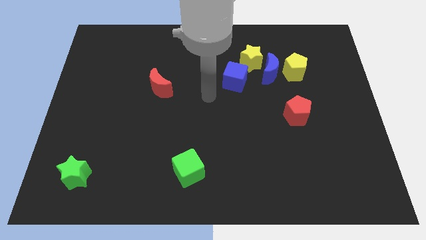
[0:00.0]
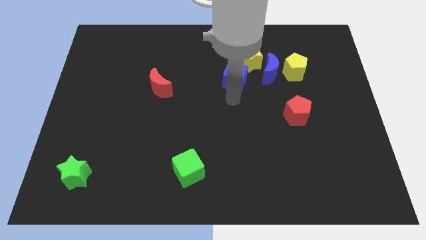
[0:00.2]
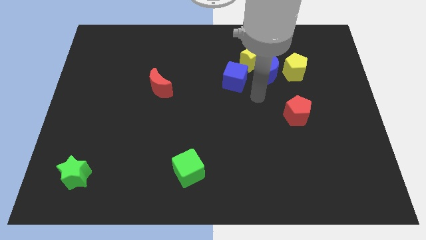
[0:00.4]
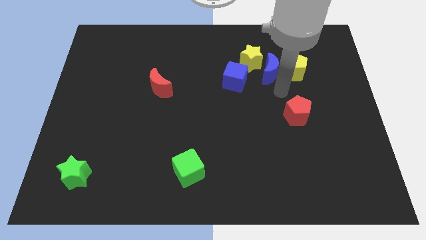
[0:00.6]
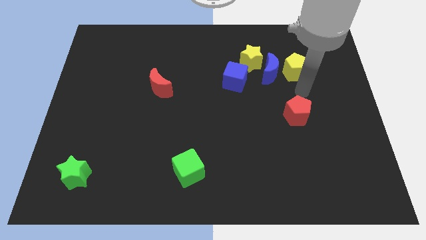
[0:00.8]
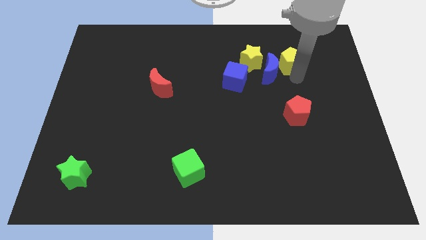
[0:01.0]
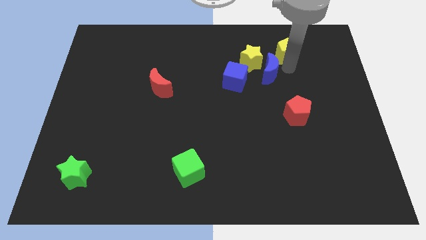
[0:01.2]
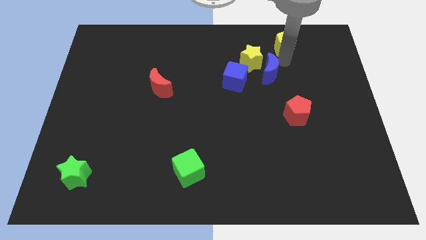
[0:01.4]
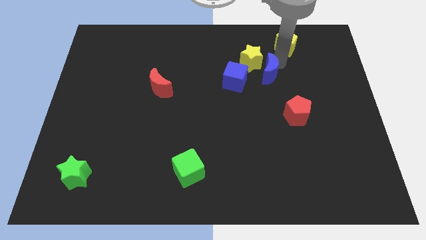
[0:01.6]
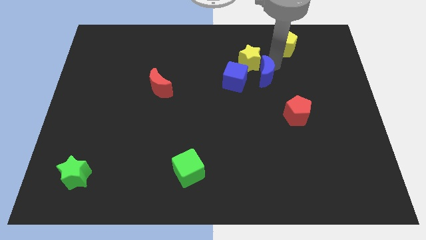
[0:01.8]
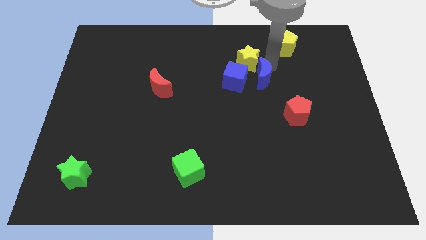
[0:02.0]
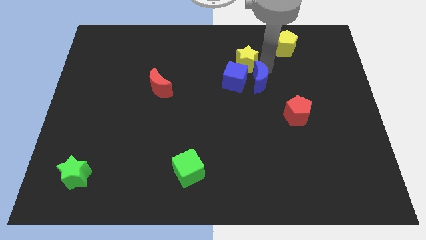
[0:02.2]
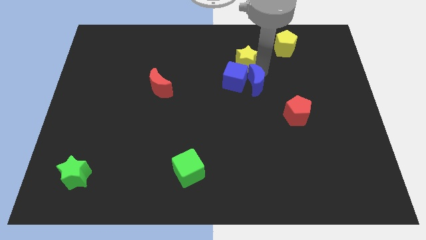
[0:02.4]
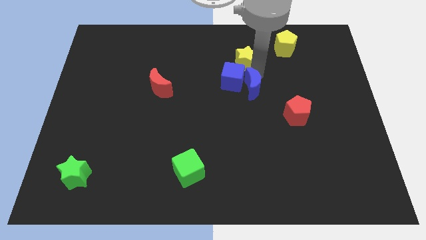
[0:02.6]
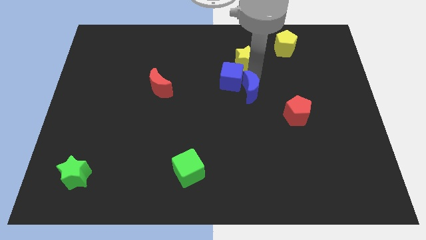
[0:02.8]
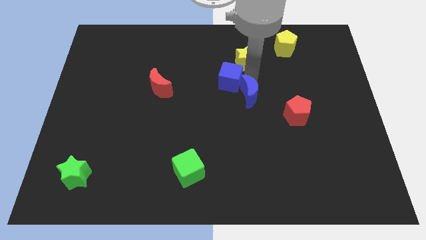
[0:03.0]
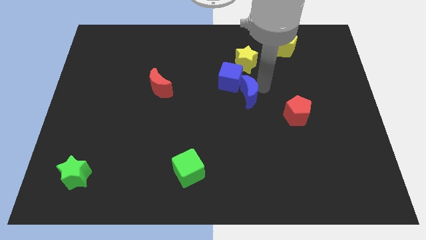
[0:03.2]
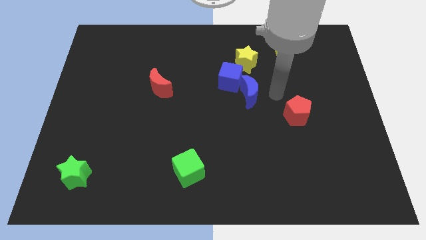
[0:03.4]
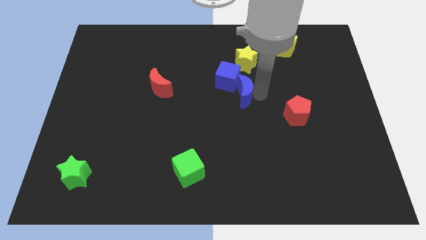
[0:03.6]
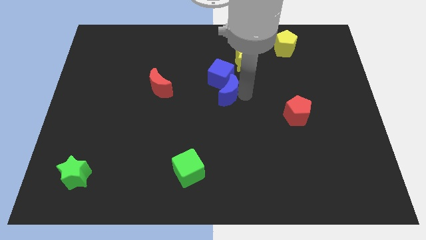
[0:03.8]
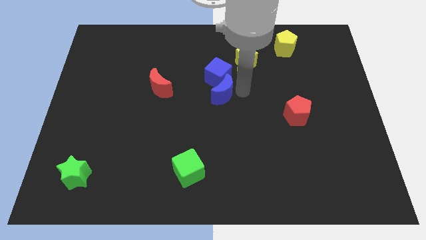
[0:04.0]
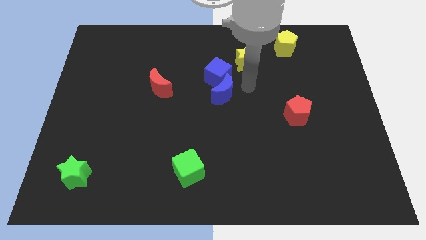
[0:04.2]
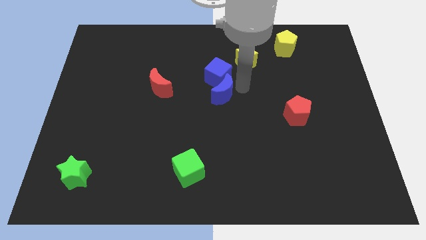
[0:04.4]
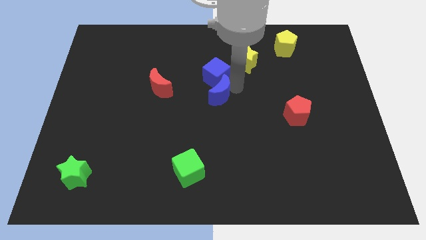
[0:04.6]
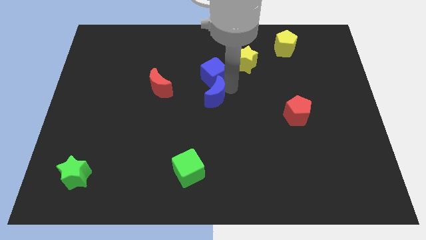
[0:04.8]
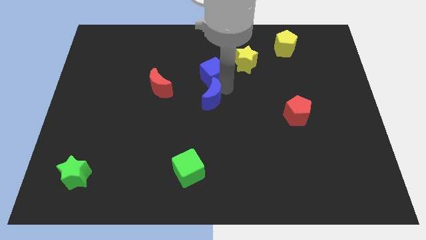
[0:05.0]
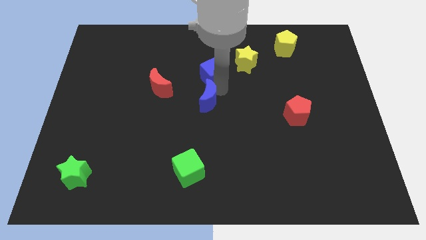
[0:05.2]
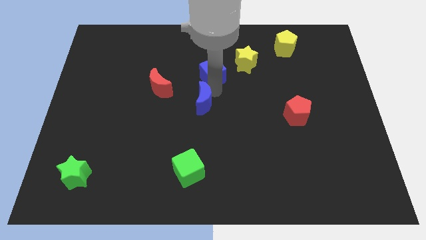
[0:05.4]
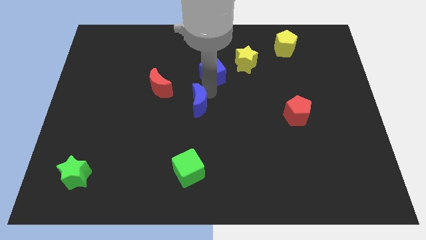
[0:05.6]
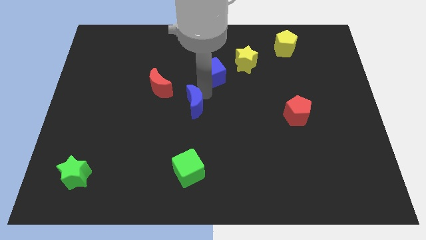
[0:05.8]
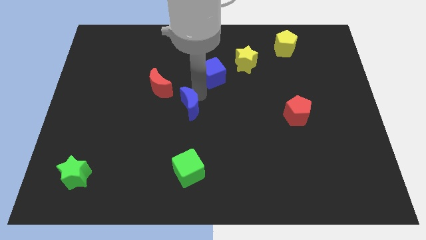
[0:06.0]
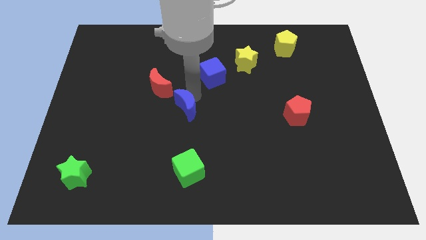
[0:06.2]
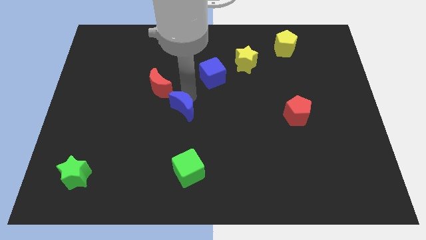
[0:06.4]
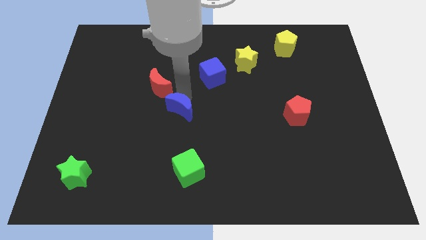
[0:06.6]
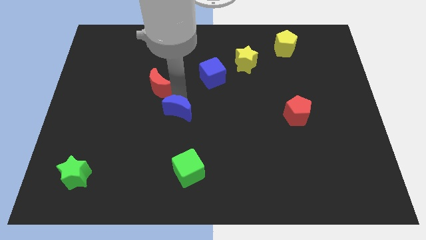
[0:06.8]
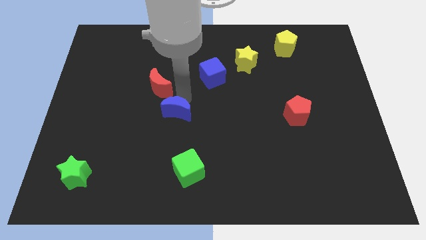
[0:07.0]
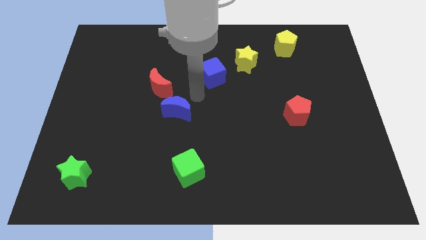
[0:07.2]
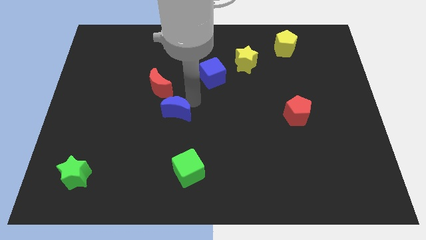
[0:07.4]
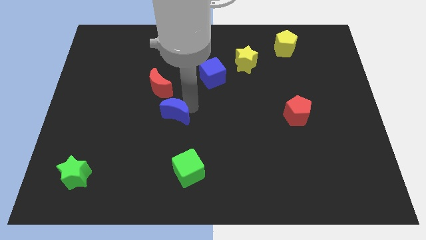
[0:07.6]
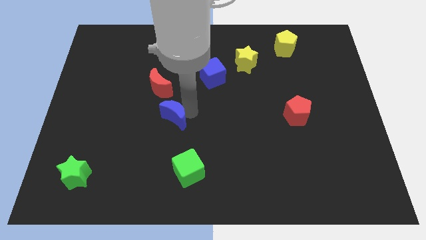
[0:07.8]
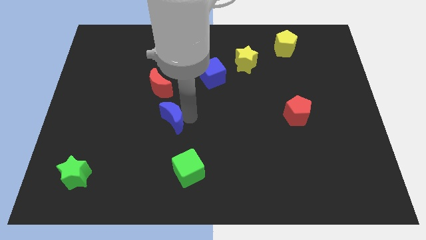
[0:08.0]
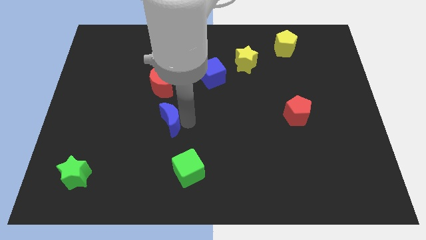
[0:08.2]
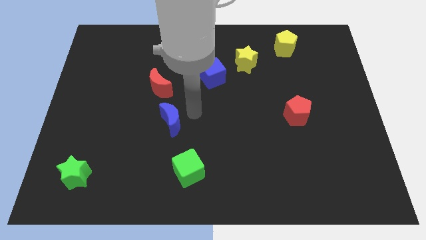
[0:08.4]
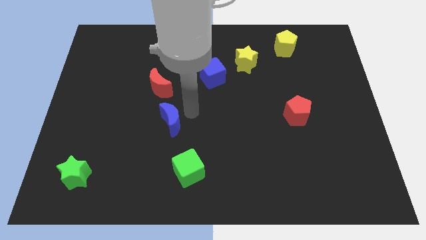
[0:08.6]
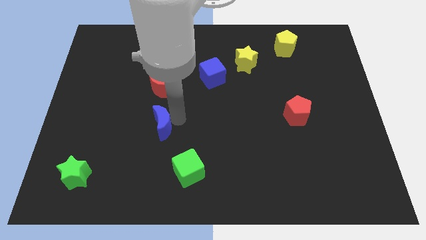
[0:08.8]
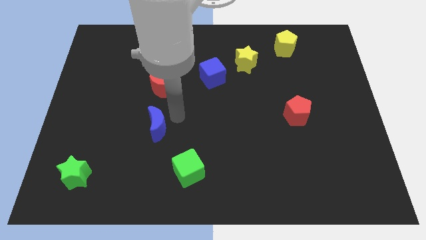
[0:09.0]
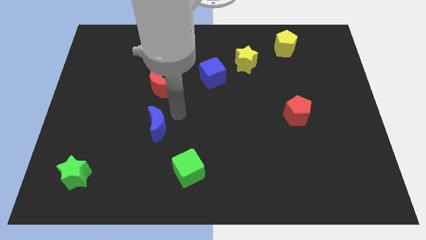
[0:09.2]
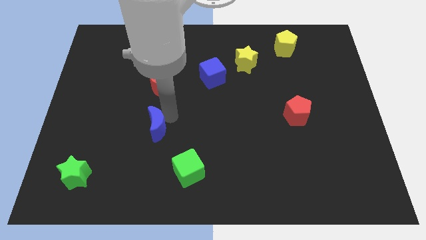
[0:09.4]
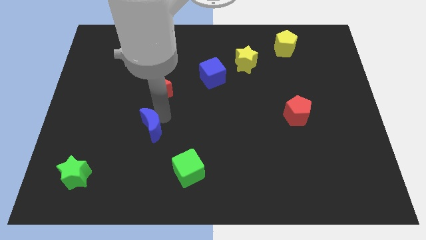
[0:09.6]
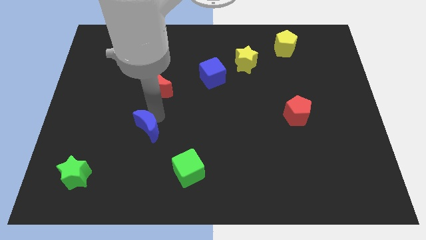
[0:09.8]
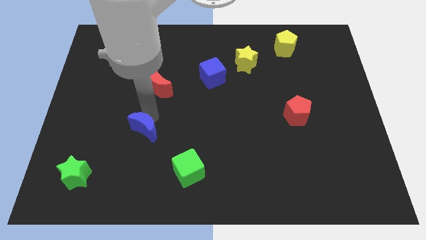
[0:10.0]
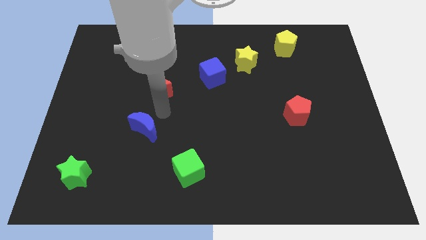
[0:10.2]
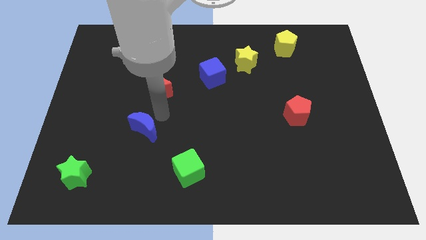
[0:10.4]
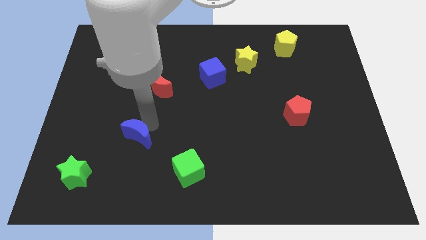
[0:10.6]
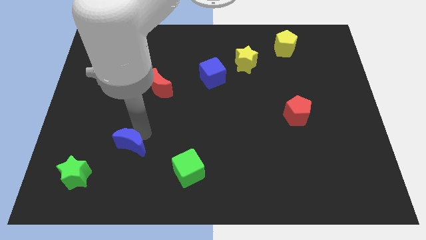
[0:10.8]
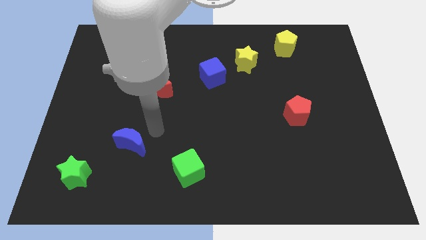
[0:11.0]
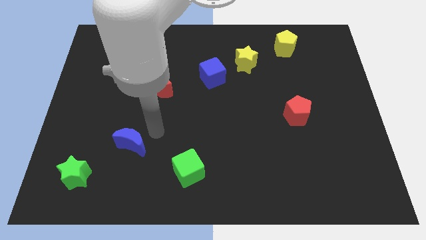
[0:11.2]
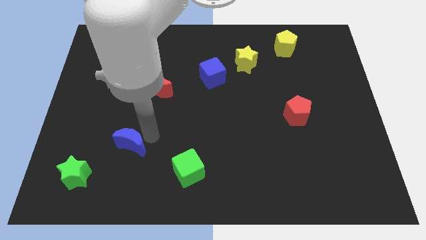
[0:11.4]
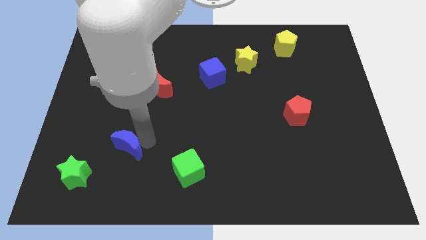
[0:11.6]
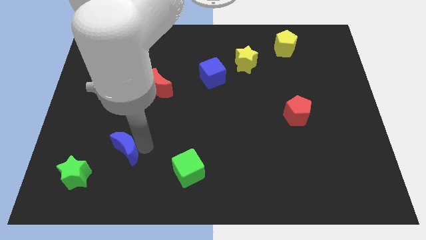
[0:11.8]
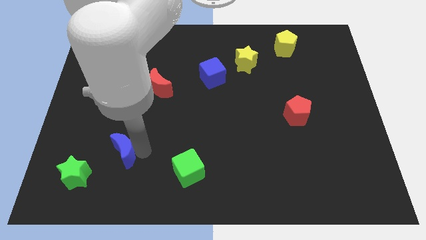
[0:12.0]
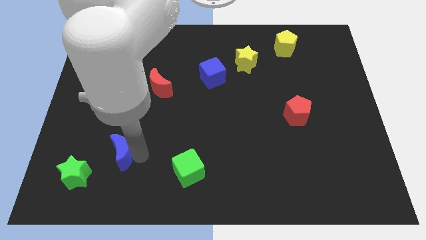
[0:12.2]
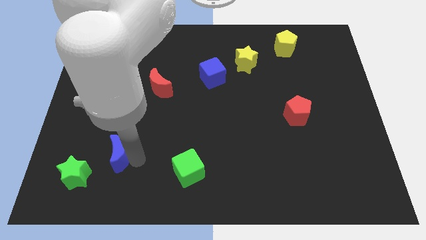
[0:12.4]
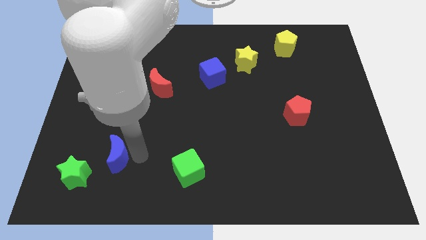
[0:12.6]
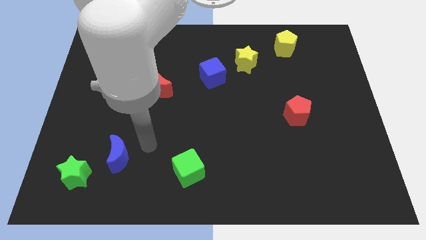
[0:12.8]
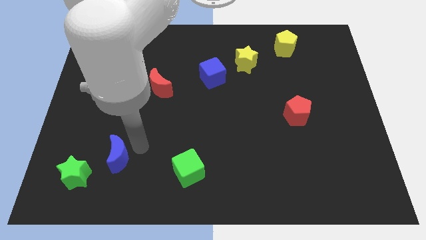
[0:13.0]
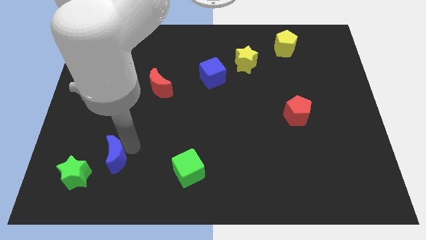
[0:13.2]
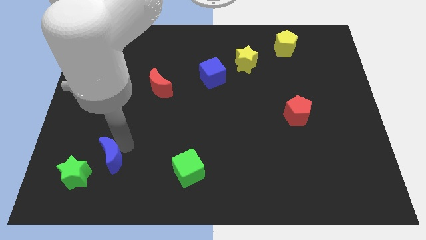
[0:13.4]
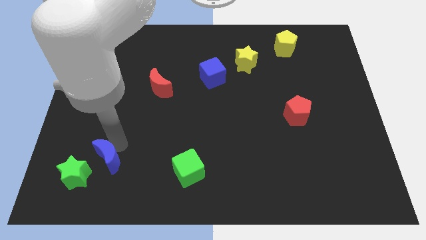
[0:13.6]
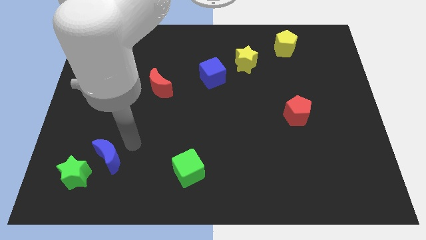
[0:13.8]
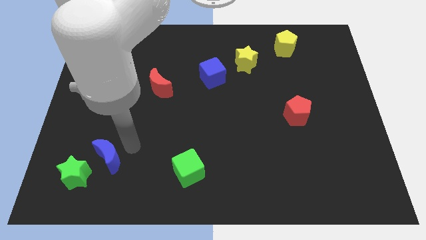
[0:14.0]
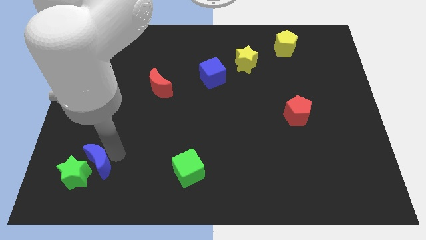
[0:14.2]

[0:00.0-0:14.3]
move the blue moon close to the green star
